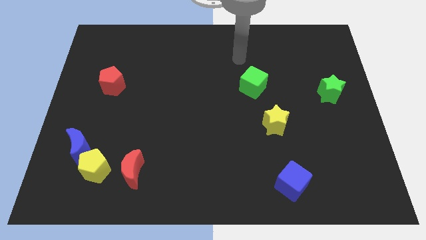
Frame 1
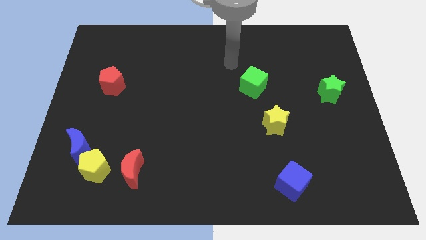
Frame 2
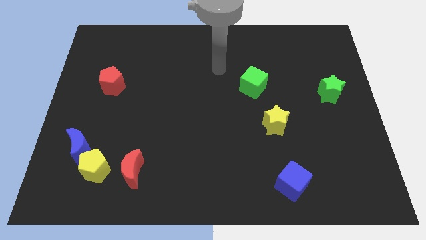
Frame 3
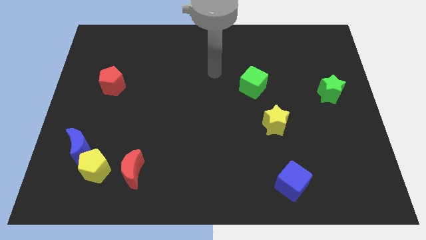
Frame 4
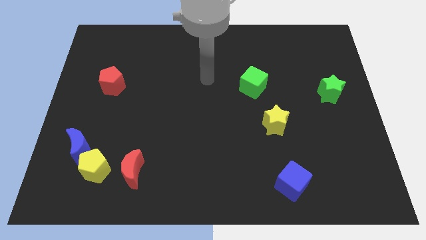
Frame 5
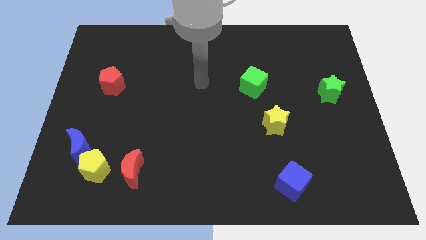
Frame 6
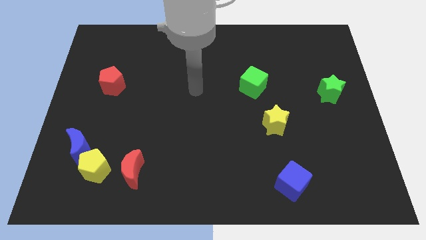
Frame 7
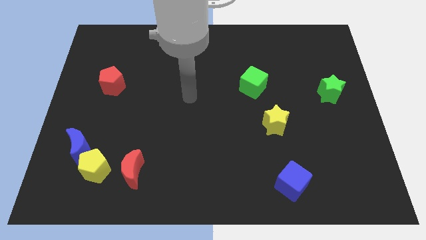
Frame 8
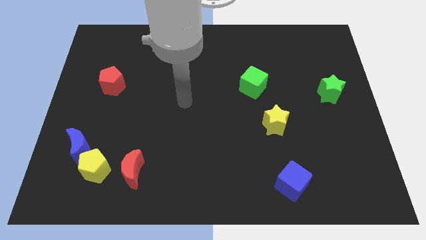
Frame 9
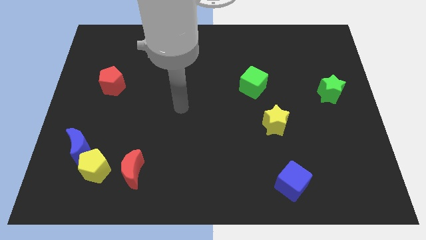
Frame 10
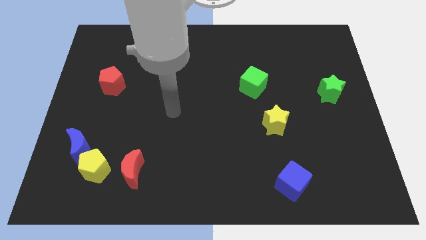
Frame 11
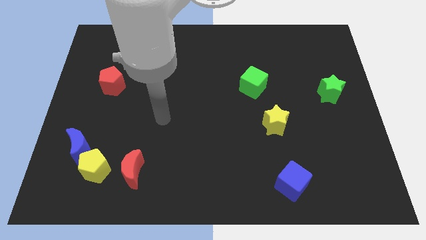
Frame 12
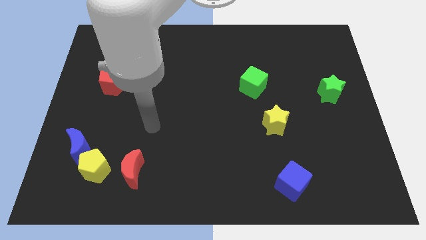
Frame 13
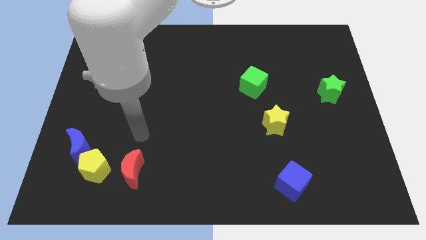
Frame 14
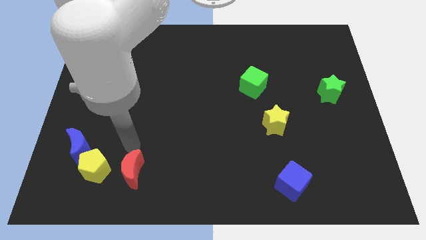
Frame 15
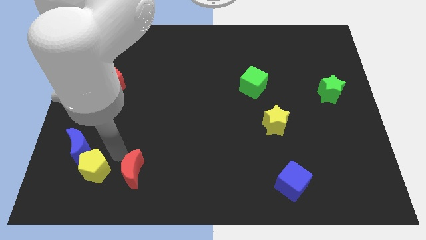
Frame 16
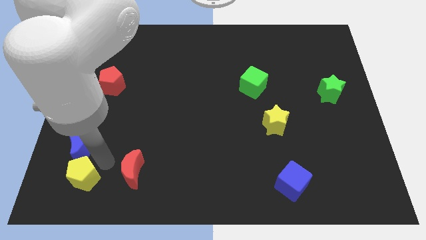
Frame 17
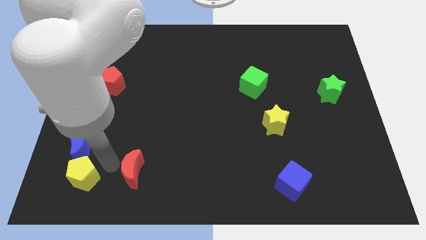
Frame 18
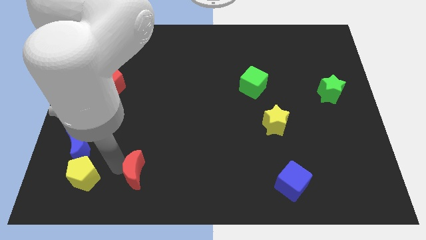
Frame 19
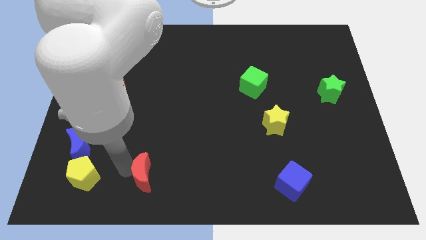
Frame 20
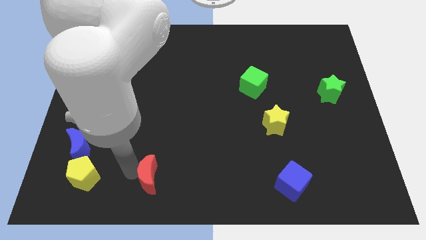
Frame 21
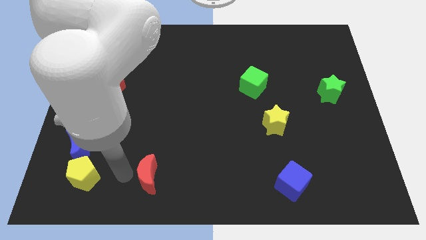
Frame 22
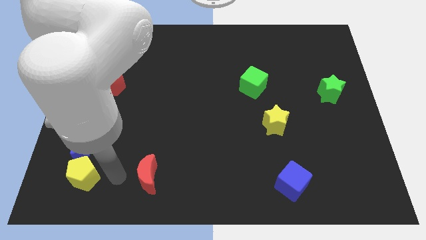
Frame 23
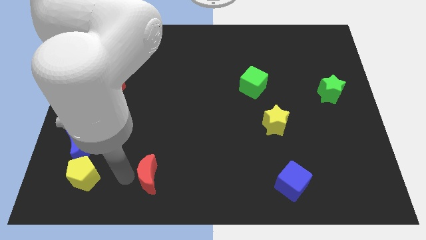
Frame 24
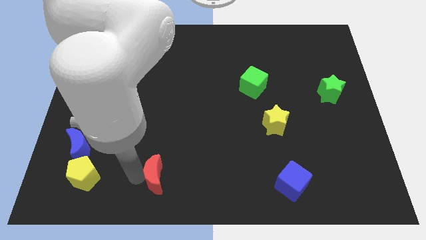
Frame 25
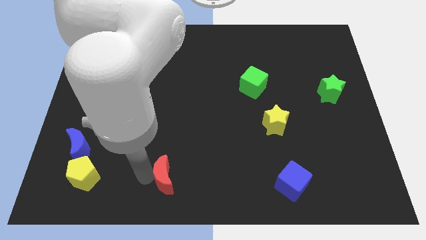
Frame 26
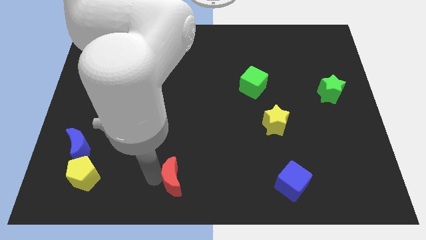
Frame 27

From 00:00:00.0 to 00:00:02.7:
slightly slide the red moon right

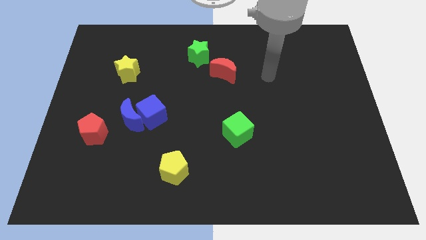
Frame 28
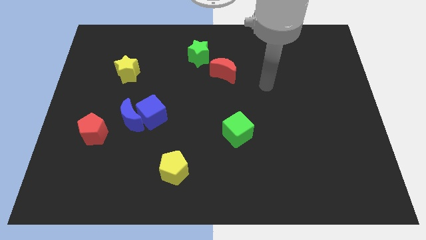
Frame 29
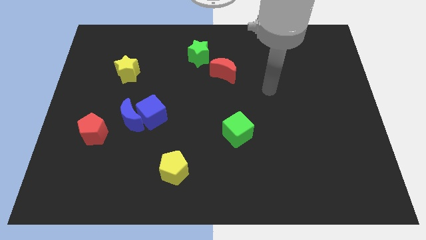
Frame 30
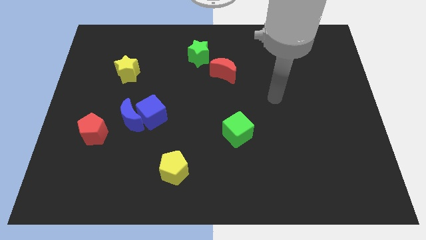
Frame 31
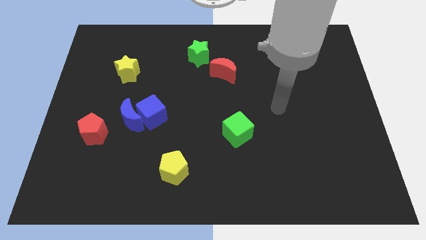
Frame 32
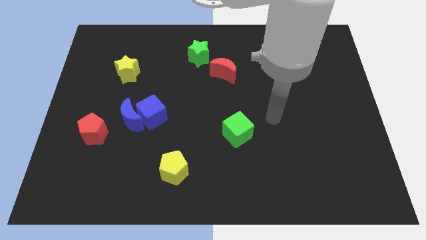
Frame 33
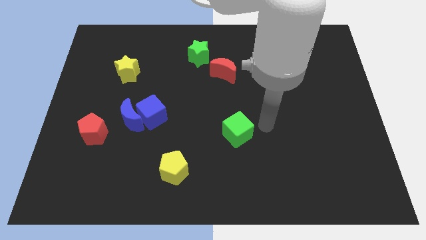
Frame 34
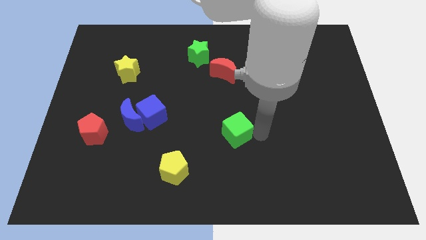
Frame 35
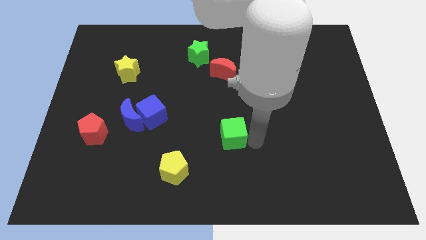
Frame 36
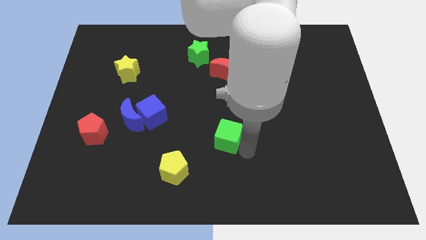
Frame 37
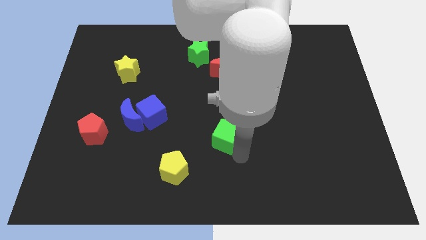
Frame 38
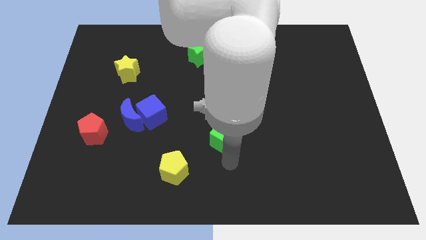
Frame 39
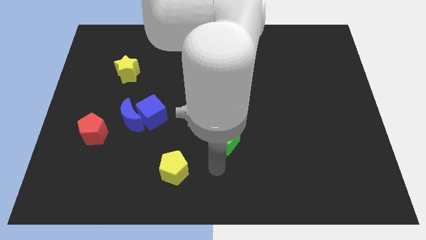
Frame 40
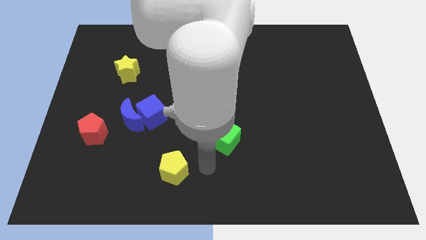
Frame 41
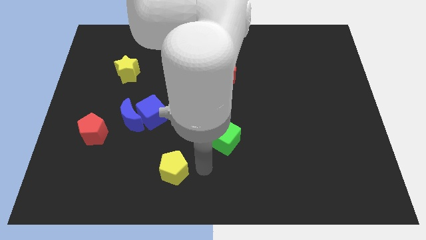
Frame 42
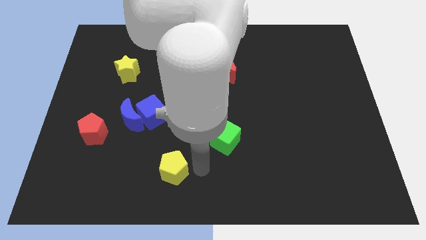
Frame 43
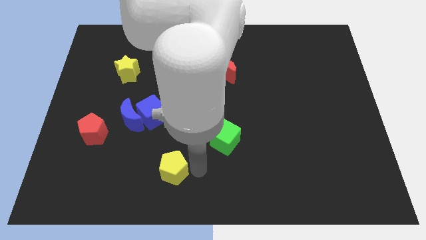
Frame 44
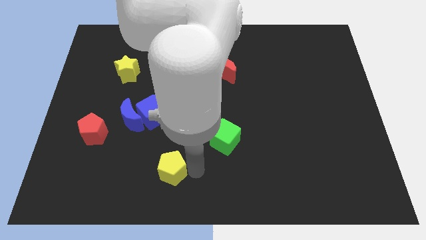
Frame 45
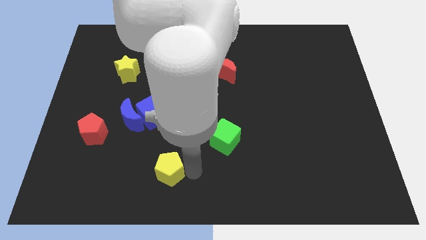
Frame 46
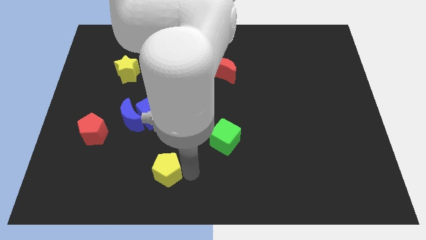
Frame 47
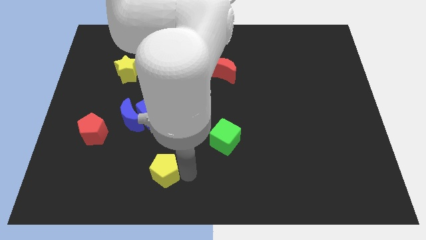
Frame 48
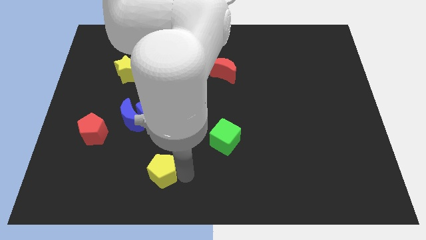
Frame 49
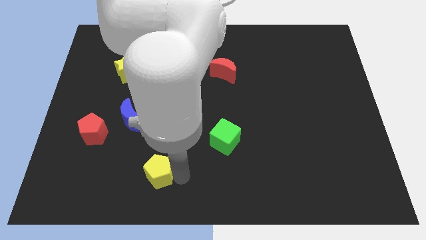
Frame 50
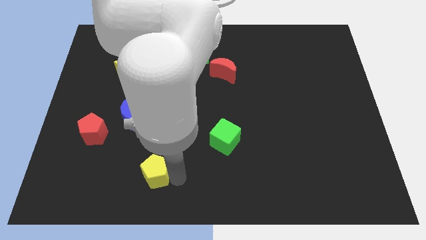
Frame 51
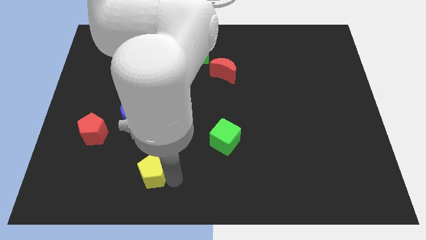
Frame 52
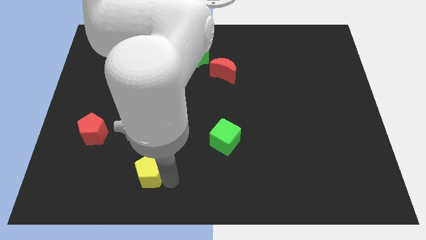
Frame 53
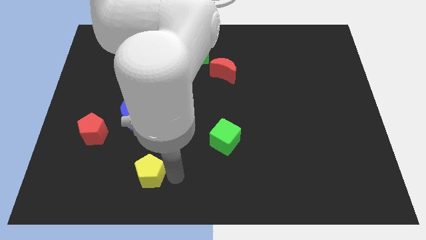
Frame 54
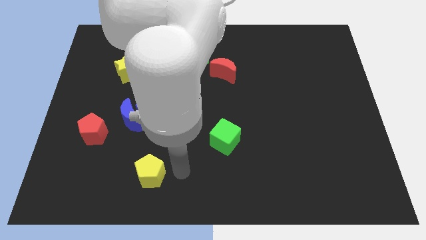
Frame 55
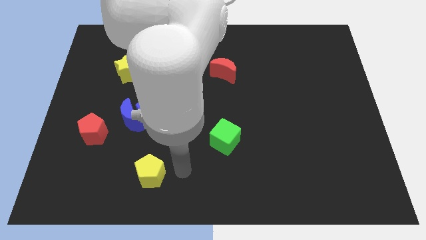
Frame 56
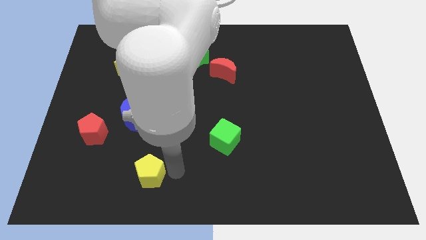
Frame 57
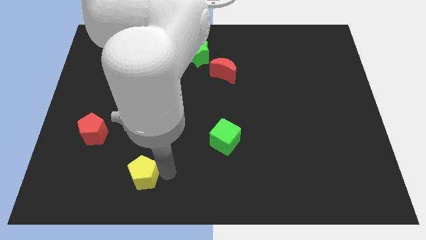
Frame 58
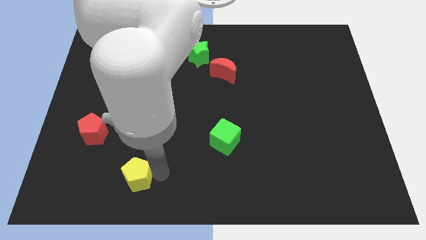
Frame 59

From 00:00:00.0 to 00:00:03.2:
slightly push the yellow pentagon left

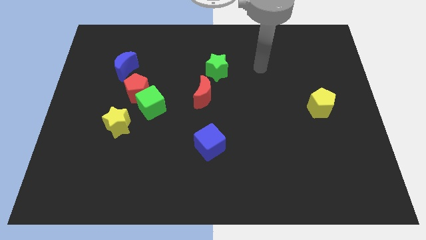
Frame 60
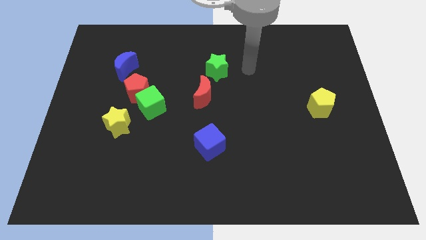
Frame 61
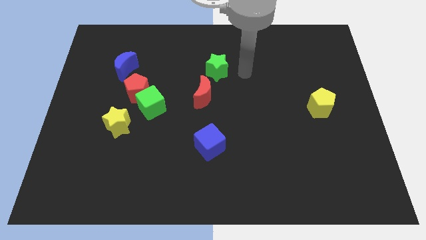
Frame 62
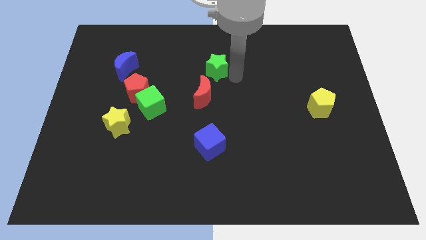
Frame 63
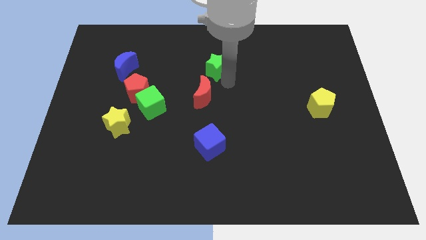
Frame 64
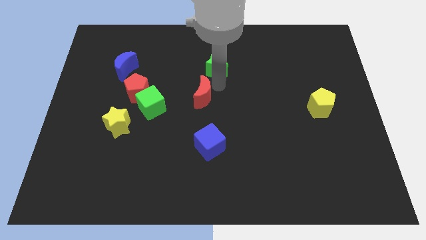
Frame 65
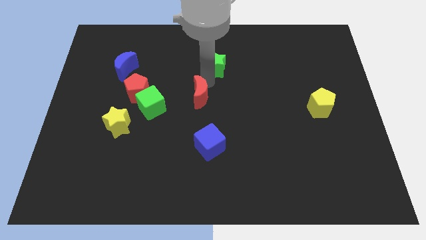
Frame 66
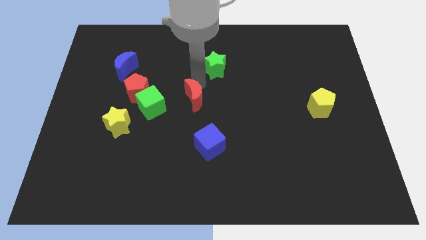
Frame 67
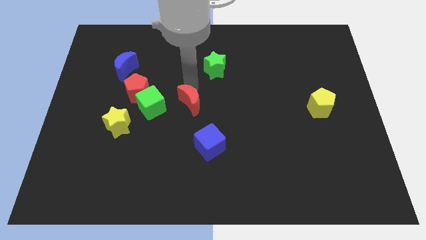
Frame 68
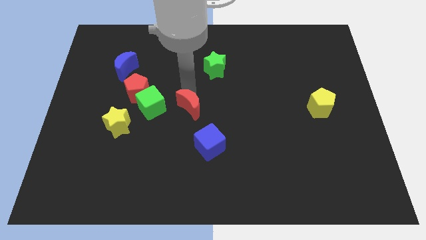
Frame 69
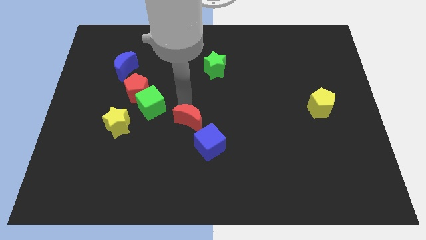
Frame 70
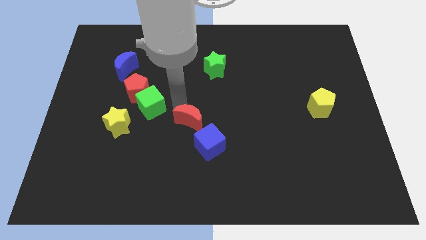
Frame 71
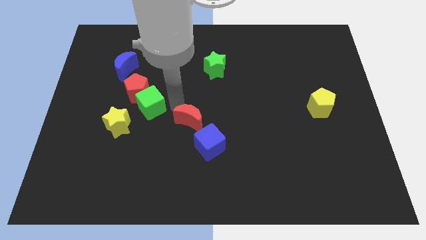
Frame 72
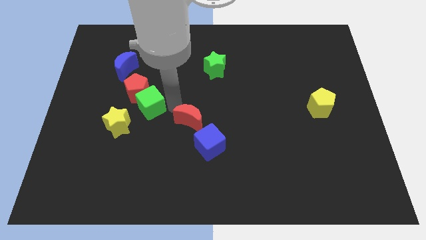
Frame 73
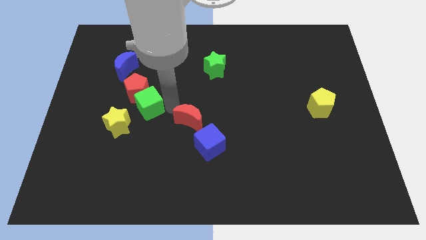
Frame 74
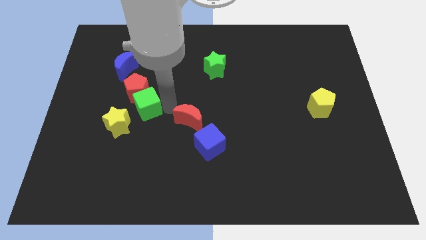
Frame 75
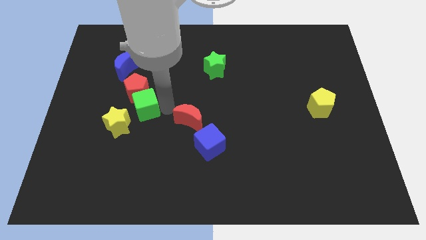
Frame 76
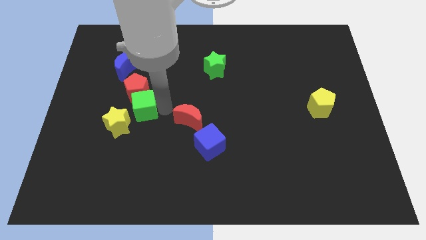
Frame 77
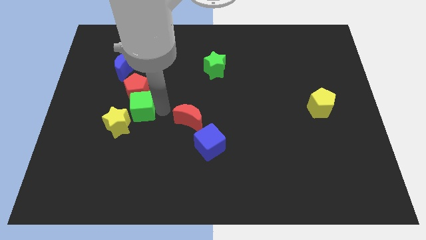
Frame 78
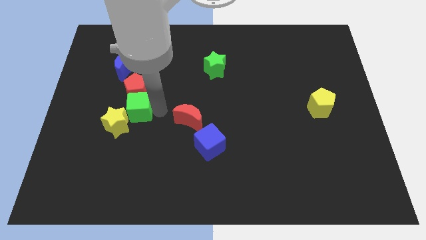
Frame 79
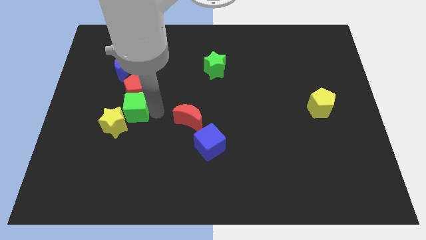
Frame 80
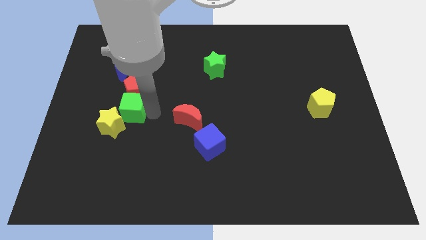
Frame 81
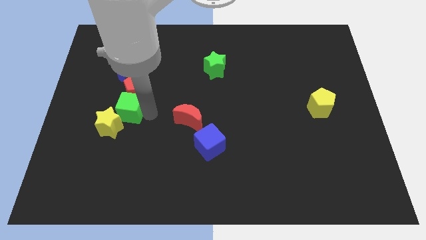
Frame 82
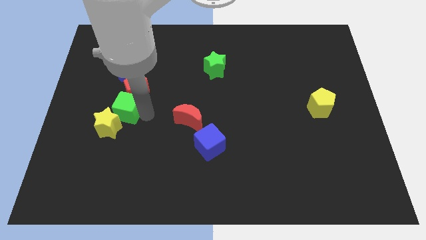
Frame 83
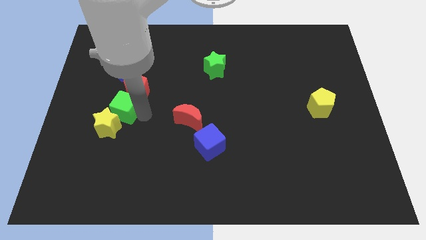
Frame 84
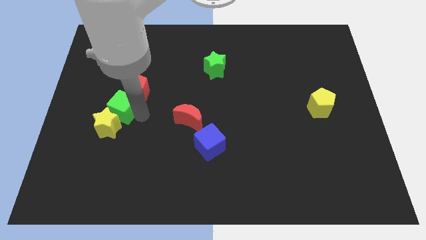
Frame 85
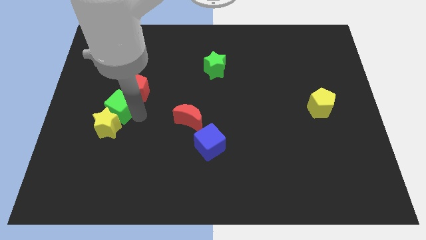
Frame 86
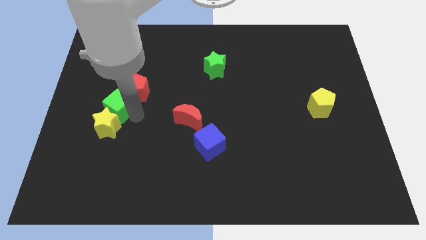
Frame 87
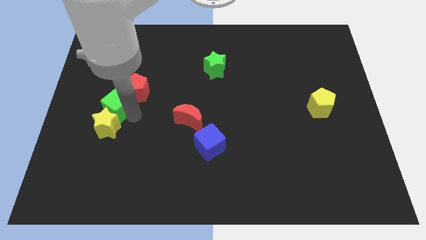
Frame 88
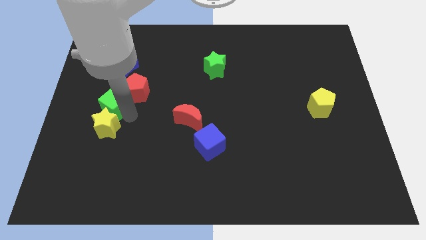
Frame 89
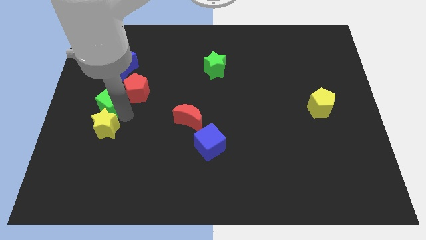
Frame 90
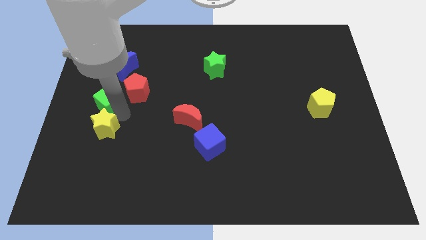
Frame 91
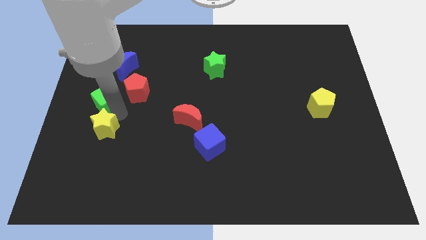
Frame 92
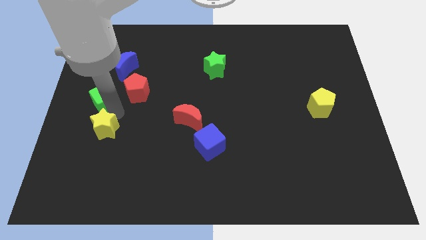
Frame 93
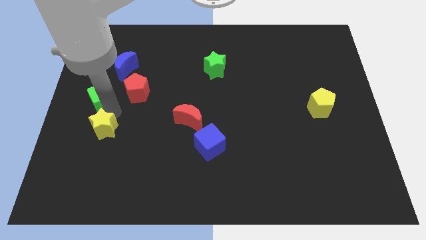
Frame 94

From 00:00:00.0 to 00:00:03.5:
slightly push the green cube upwards and then left
